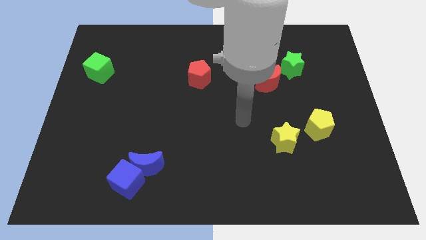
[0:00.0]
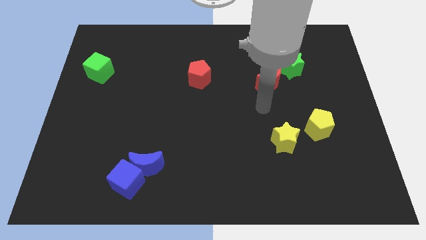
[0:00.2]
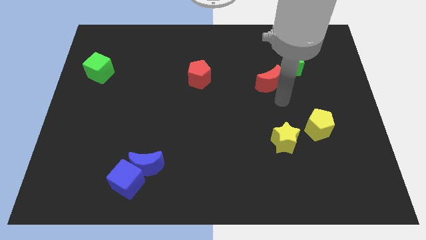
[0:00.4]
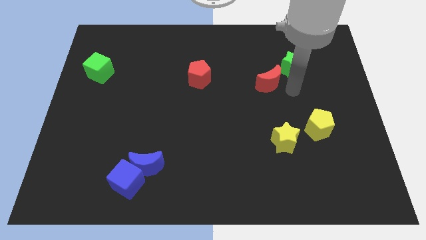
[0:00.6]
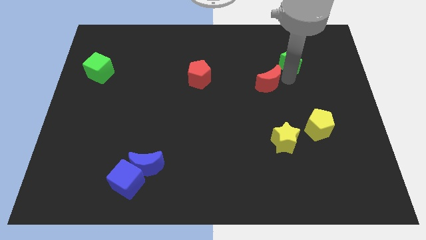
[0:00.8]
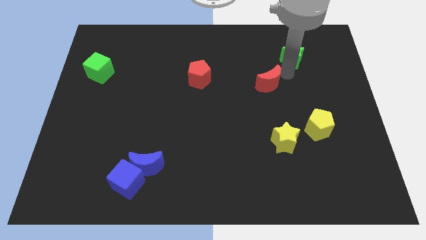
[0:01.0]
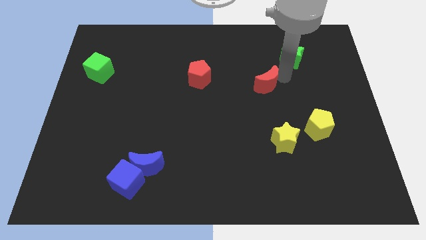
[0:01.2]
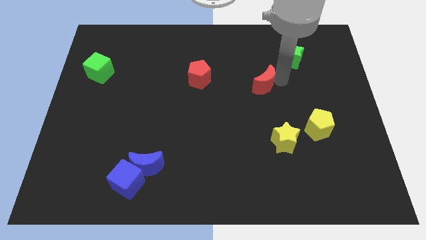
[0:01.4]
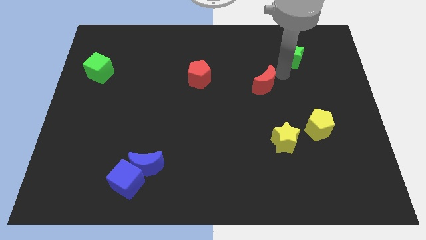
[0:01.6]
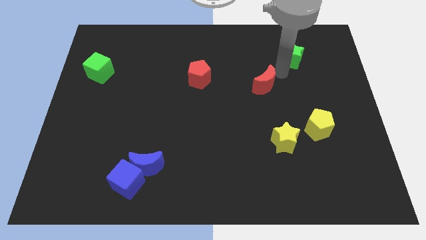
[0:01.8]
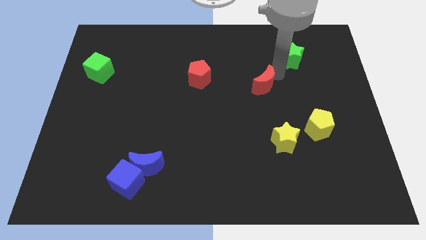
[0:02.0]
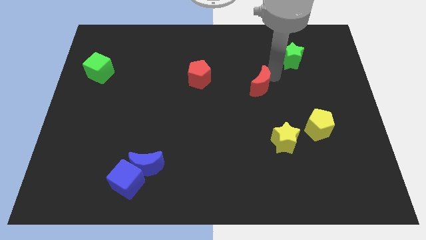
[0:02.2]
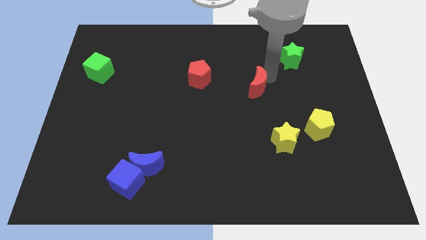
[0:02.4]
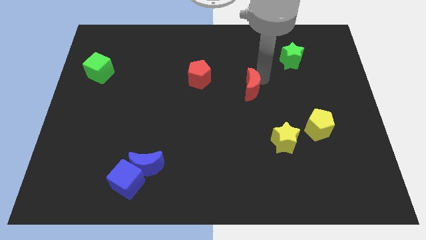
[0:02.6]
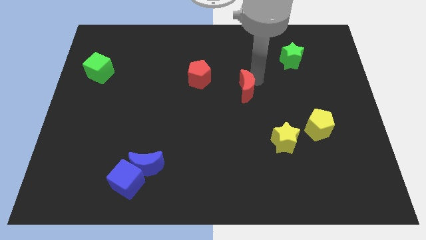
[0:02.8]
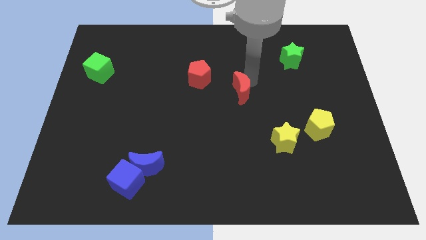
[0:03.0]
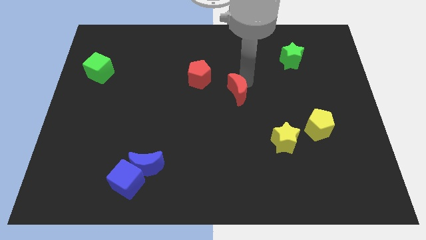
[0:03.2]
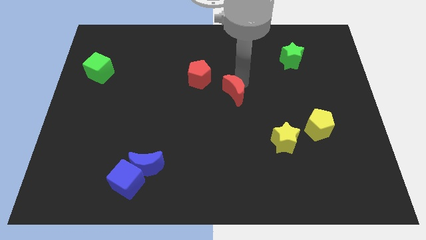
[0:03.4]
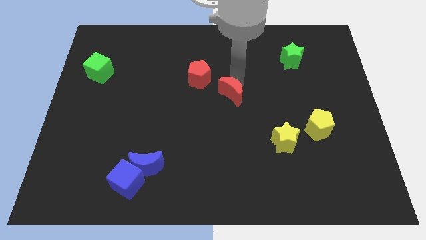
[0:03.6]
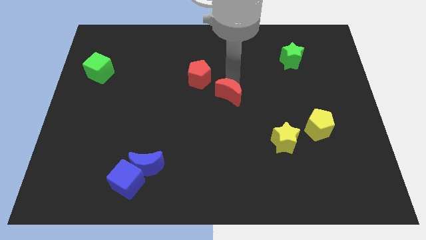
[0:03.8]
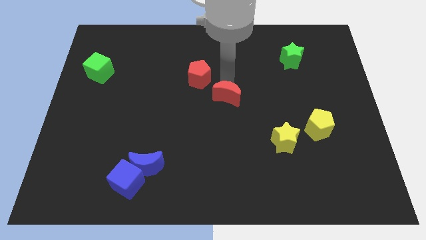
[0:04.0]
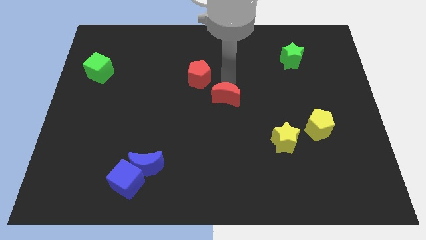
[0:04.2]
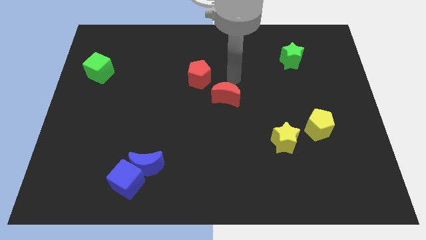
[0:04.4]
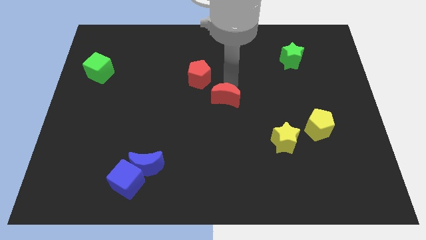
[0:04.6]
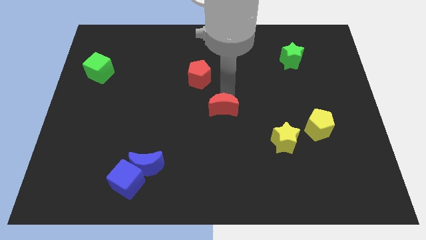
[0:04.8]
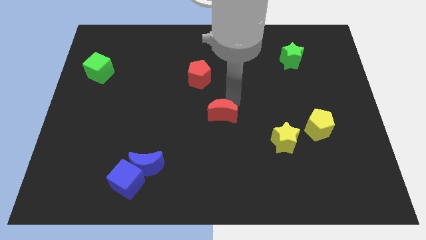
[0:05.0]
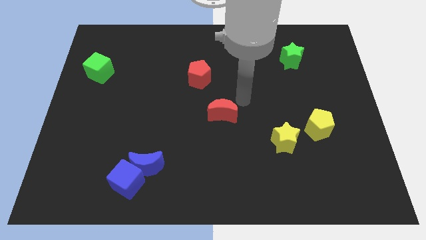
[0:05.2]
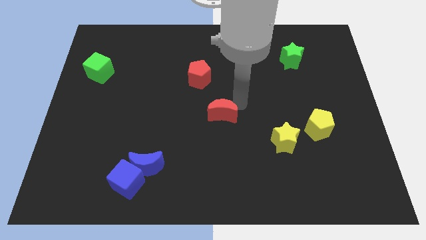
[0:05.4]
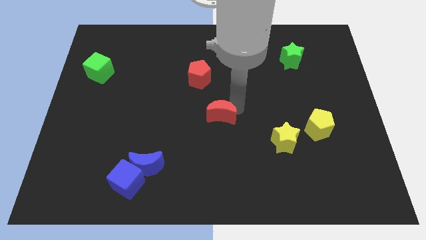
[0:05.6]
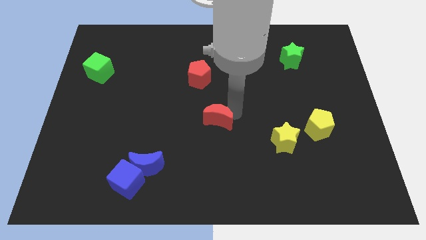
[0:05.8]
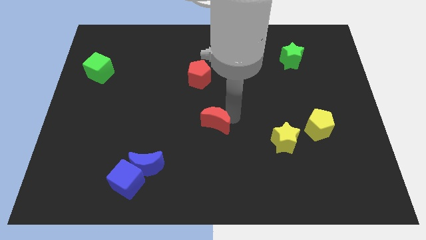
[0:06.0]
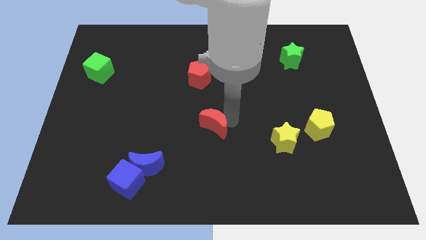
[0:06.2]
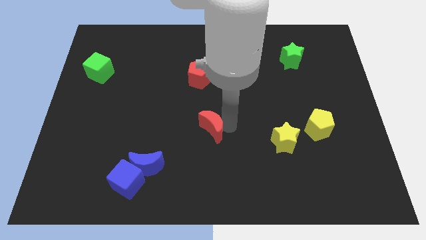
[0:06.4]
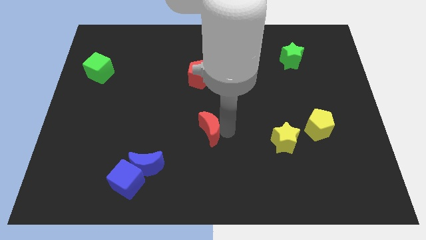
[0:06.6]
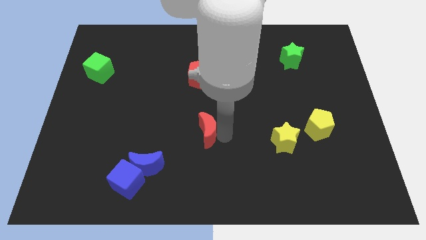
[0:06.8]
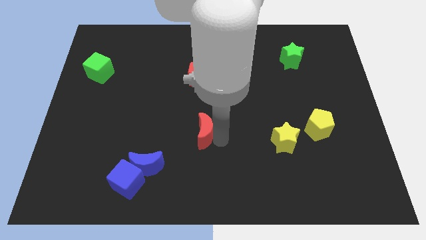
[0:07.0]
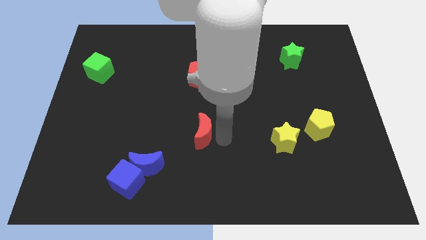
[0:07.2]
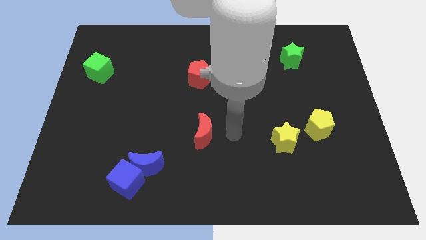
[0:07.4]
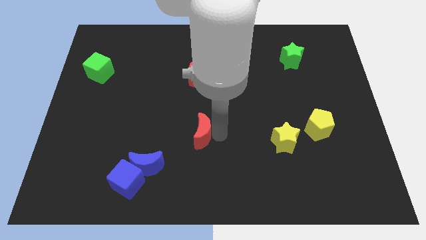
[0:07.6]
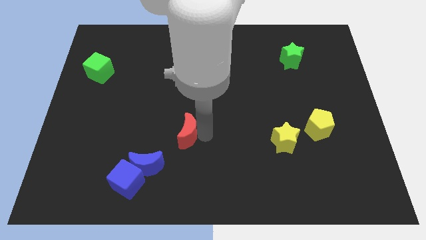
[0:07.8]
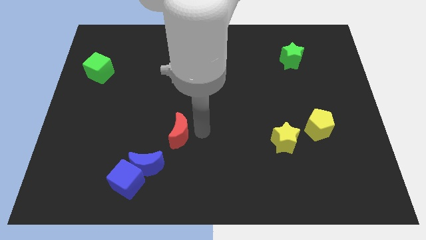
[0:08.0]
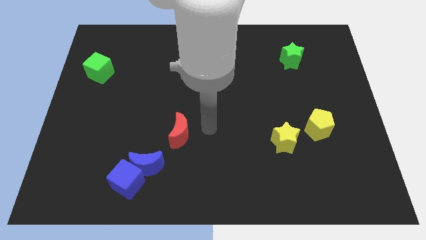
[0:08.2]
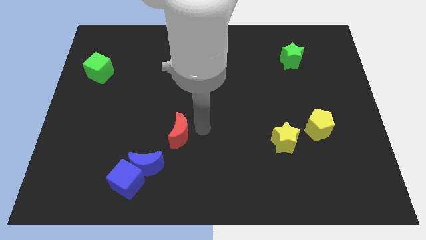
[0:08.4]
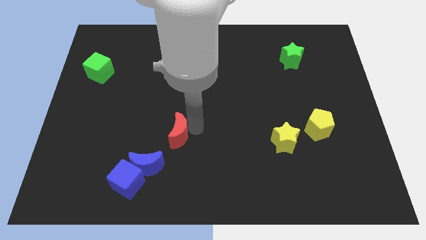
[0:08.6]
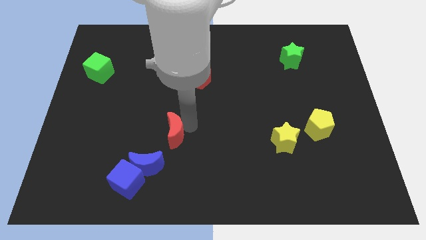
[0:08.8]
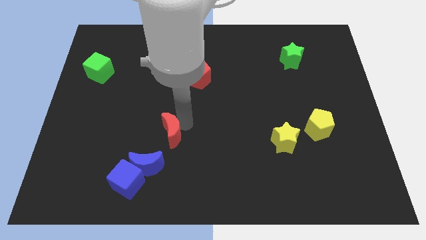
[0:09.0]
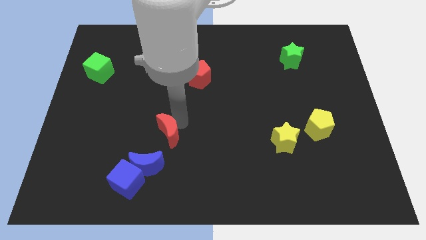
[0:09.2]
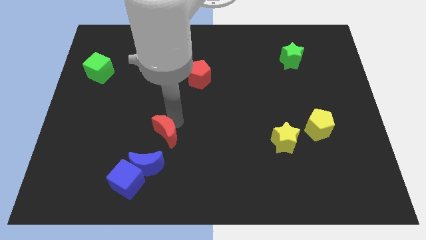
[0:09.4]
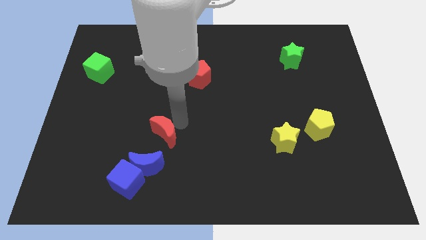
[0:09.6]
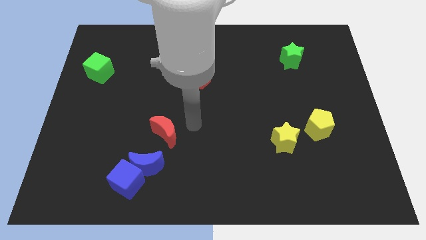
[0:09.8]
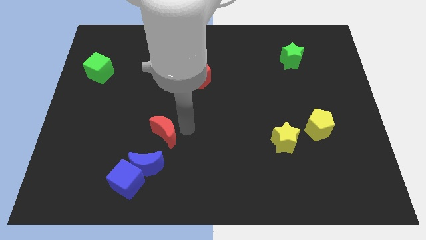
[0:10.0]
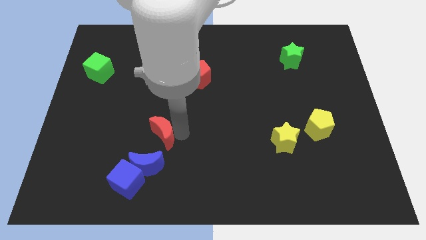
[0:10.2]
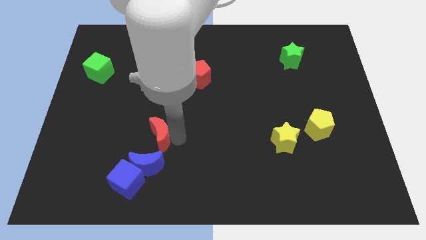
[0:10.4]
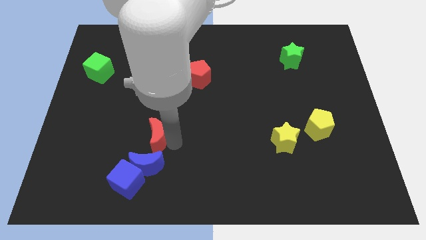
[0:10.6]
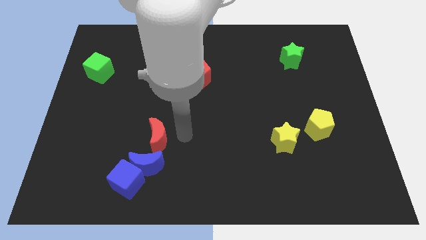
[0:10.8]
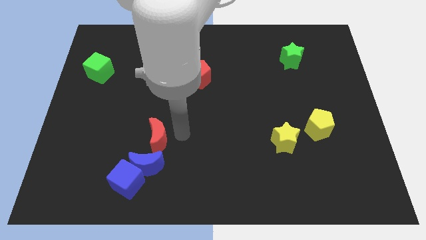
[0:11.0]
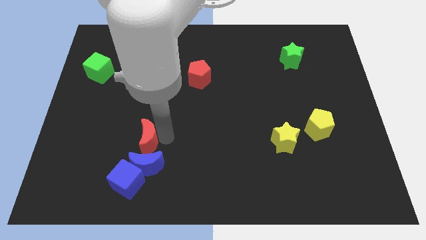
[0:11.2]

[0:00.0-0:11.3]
push the red moon diagonally up and to the left of the blue moon
